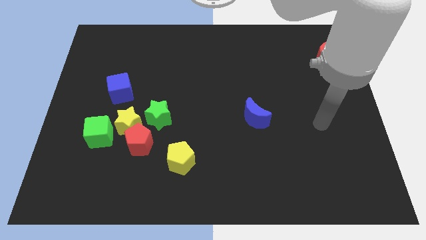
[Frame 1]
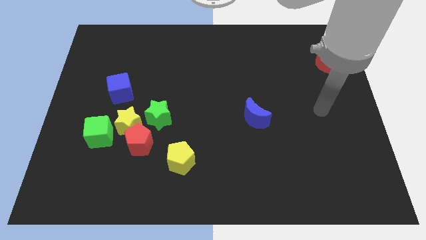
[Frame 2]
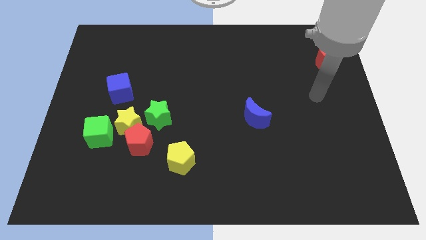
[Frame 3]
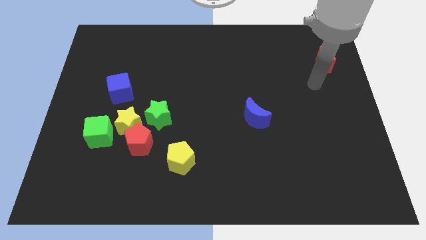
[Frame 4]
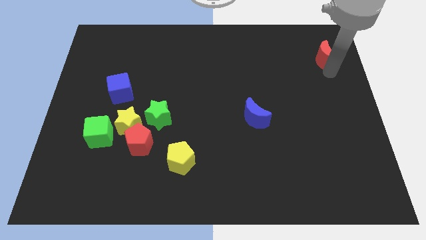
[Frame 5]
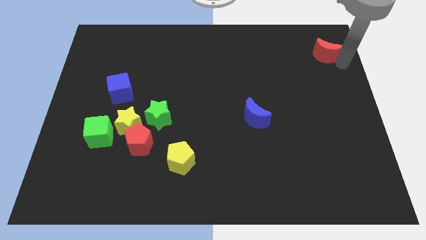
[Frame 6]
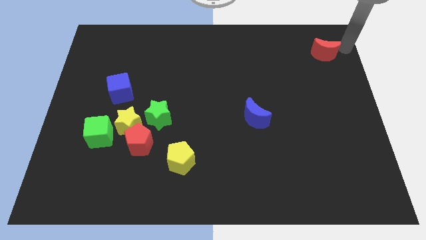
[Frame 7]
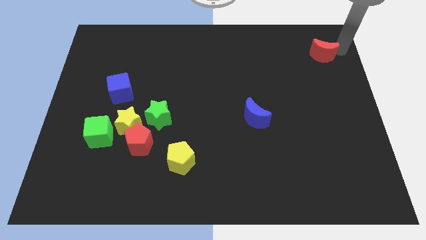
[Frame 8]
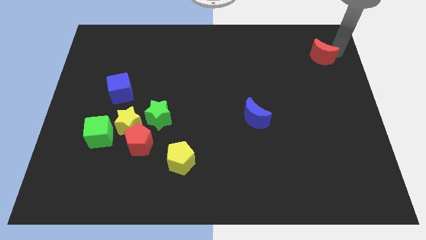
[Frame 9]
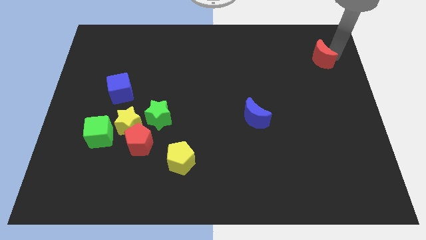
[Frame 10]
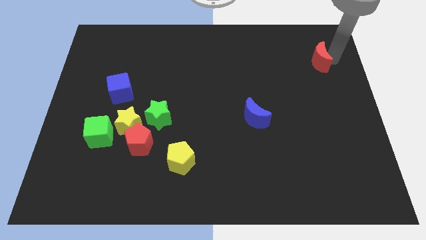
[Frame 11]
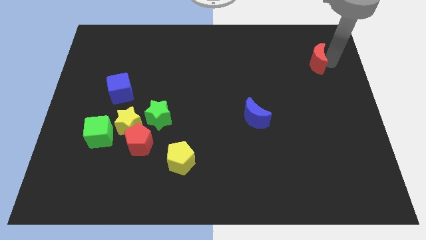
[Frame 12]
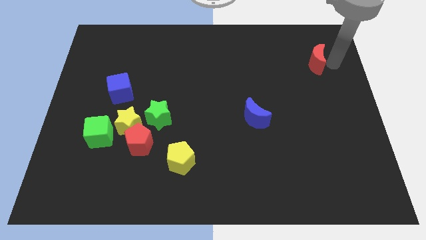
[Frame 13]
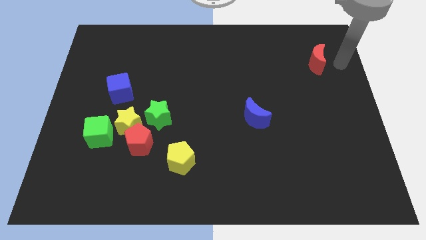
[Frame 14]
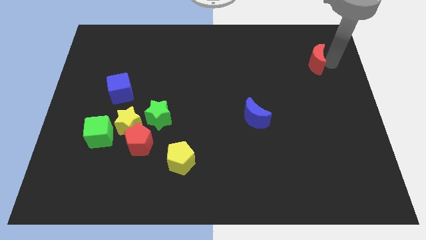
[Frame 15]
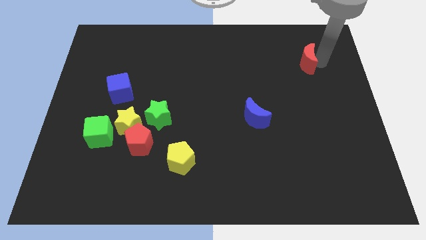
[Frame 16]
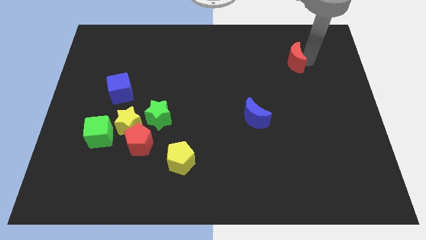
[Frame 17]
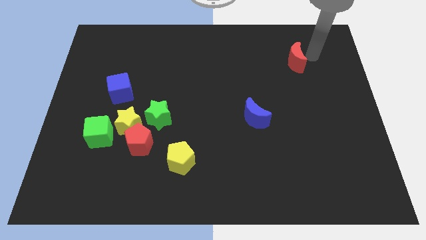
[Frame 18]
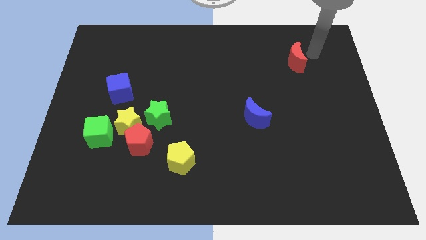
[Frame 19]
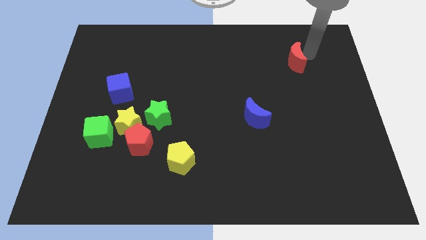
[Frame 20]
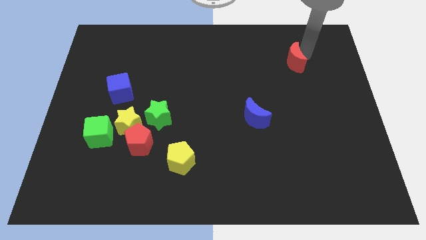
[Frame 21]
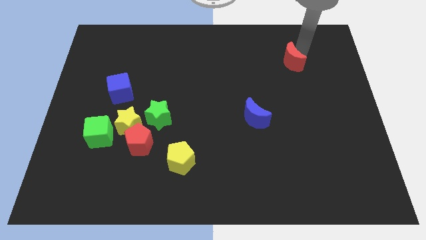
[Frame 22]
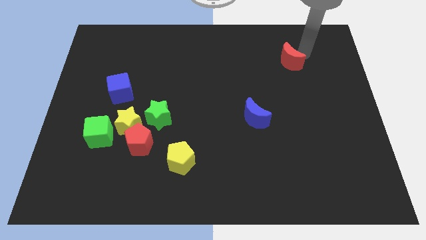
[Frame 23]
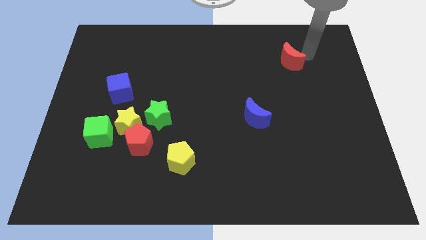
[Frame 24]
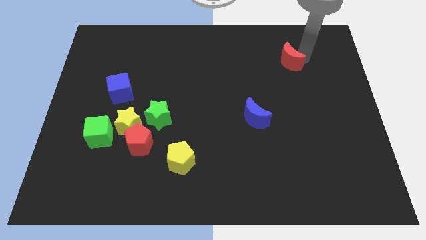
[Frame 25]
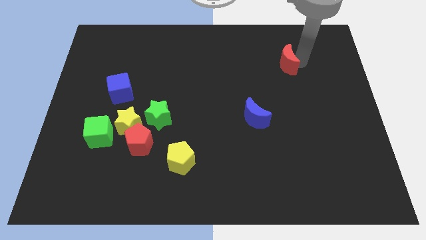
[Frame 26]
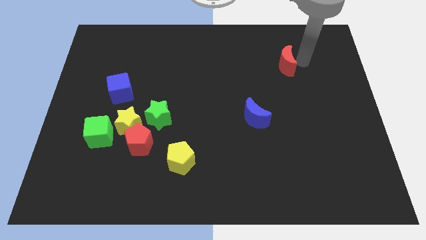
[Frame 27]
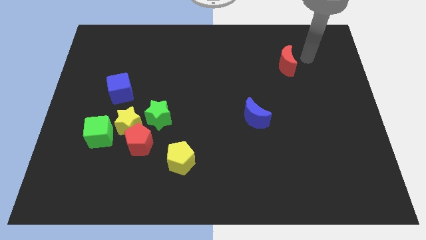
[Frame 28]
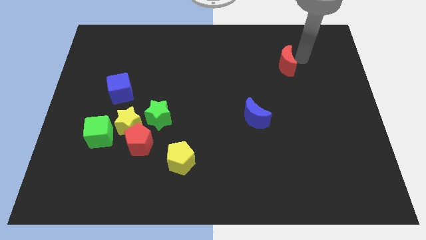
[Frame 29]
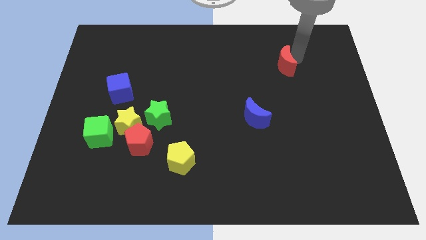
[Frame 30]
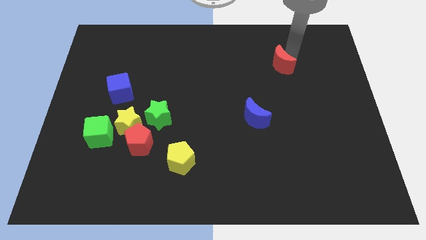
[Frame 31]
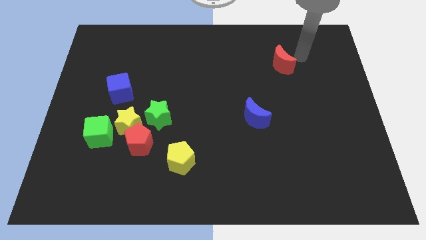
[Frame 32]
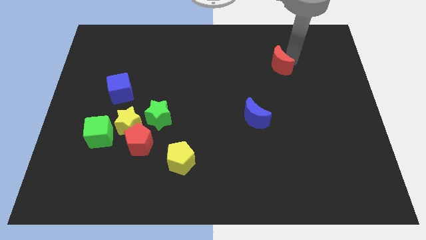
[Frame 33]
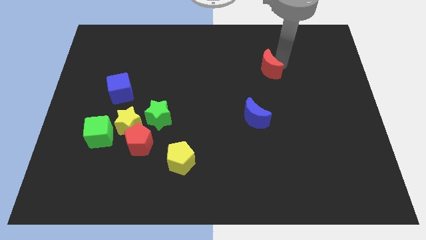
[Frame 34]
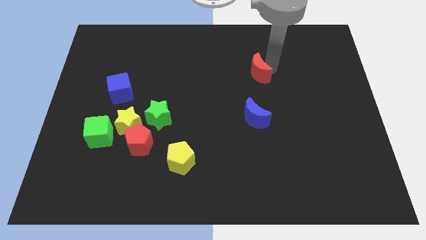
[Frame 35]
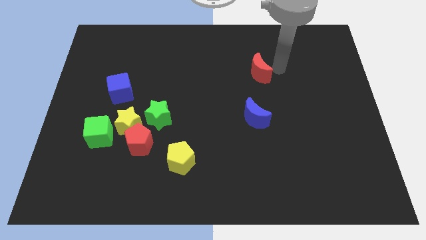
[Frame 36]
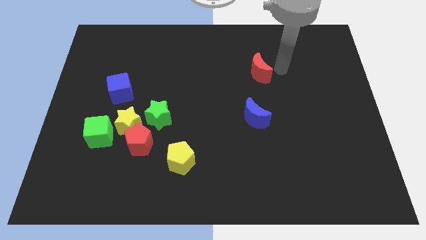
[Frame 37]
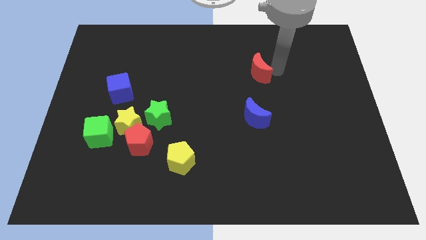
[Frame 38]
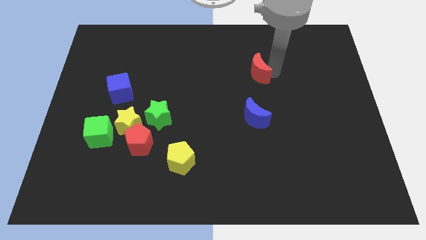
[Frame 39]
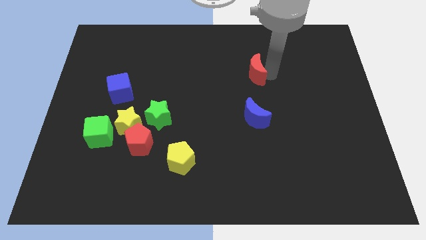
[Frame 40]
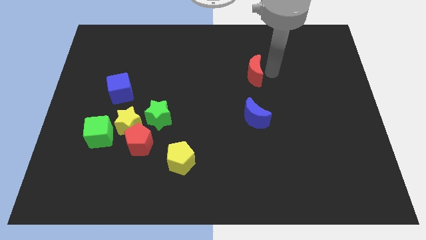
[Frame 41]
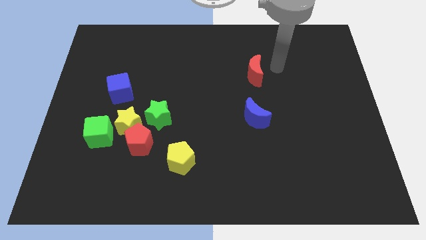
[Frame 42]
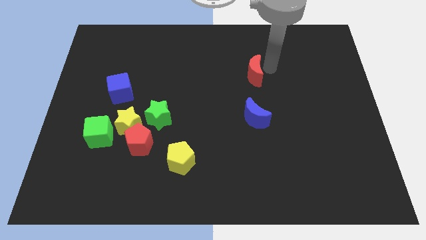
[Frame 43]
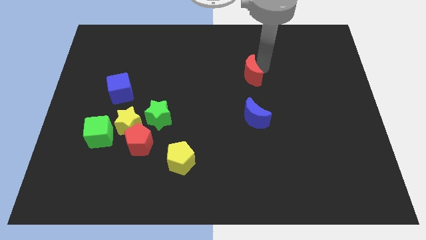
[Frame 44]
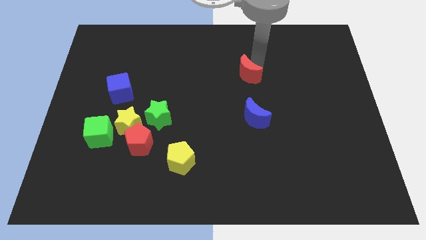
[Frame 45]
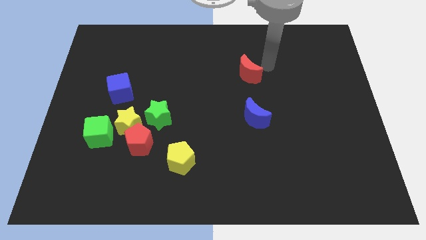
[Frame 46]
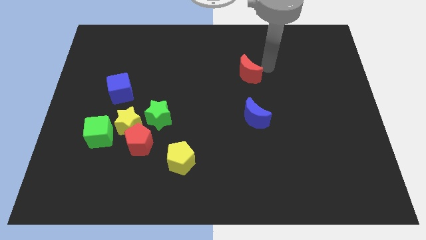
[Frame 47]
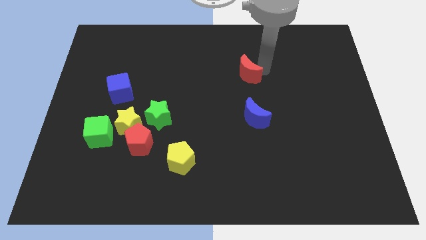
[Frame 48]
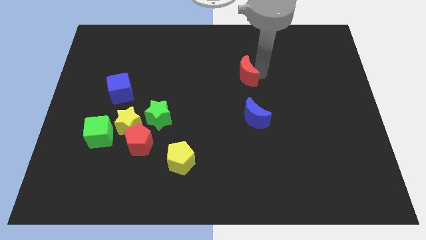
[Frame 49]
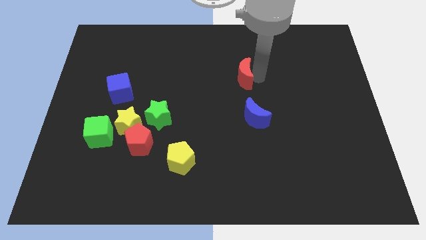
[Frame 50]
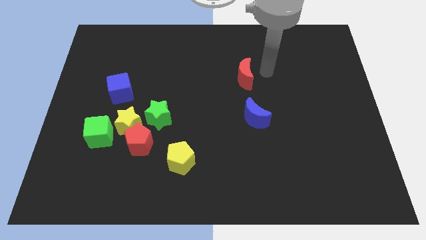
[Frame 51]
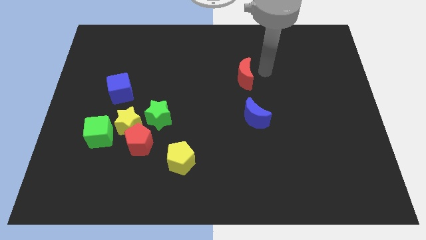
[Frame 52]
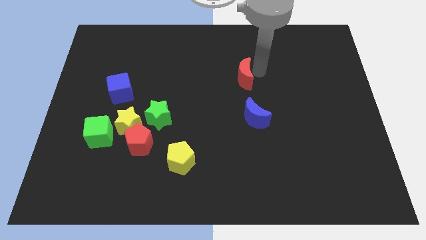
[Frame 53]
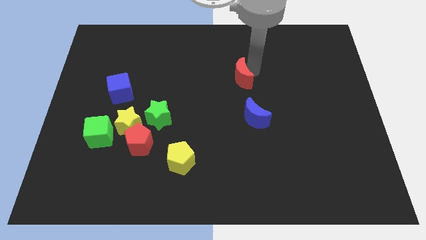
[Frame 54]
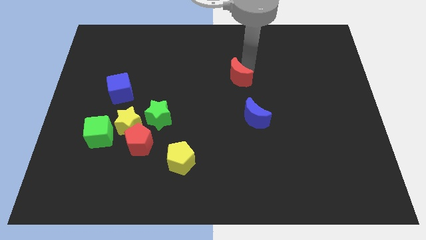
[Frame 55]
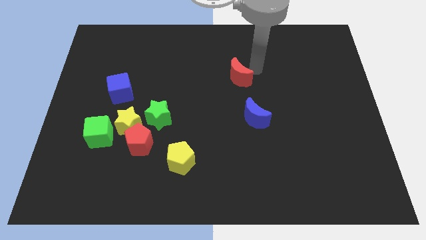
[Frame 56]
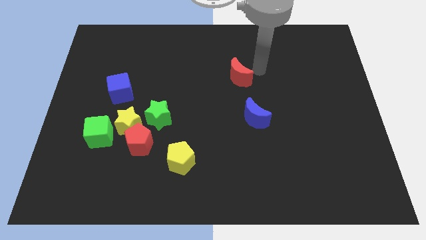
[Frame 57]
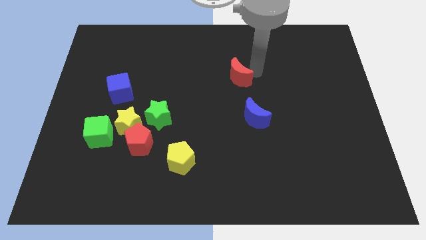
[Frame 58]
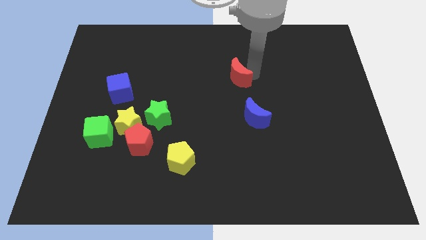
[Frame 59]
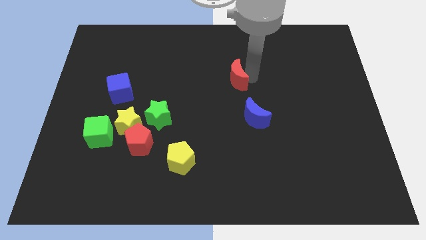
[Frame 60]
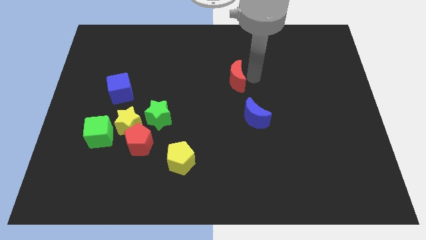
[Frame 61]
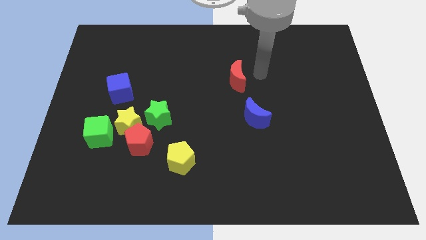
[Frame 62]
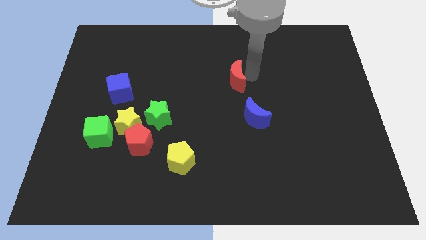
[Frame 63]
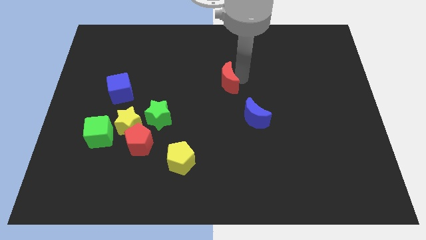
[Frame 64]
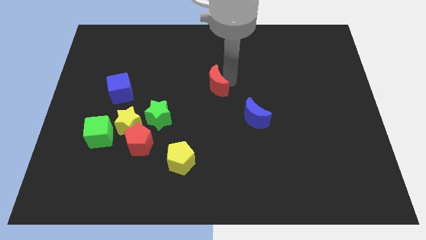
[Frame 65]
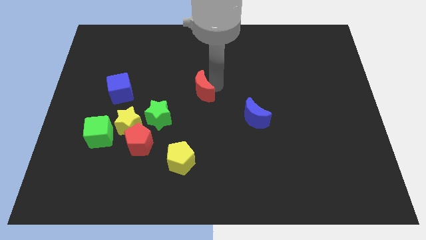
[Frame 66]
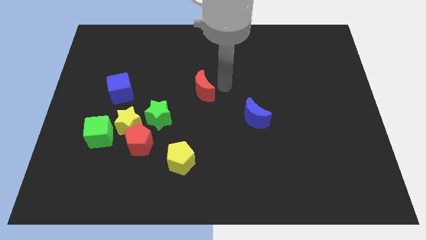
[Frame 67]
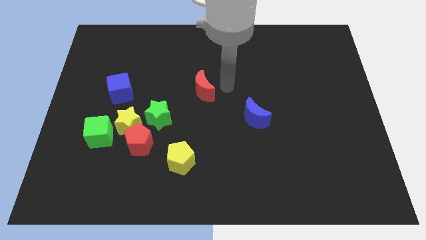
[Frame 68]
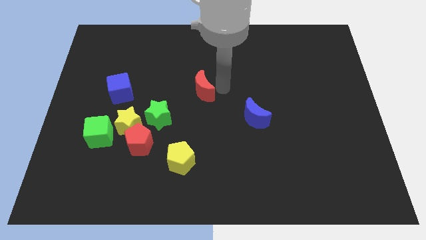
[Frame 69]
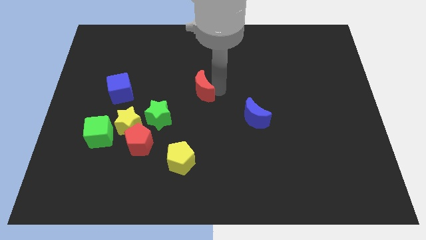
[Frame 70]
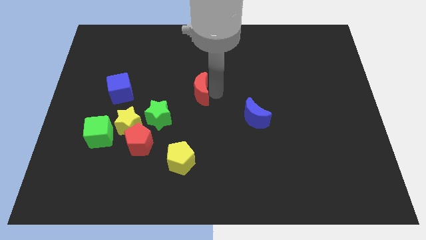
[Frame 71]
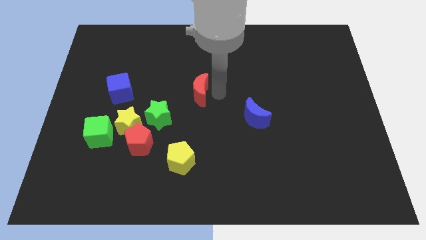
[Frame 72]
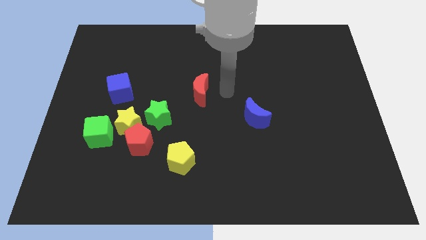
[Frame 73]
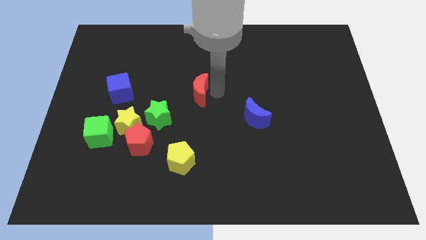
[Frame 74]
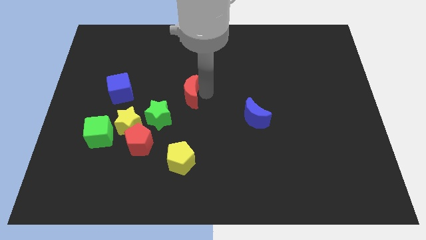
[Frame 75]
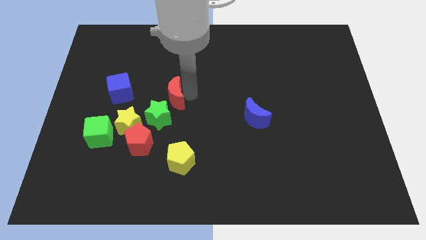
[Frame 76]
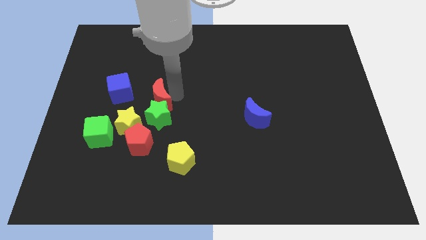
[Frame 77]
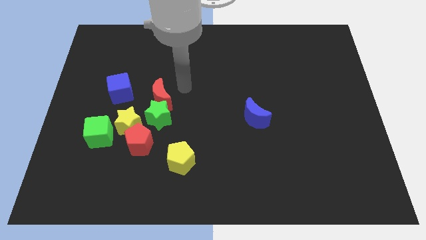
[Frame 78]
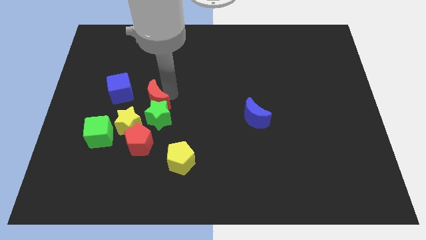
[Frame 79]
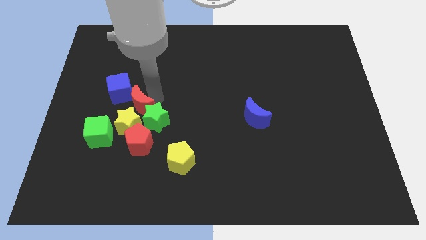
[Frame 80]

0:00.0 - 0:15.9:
push the red moon to the top right of the green cube
